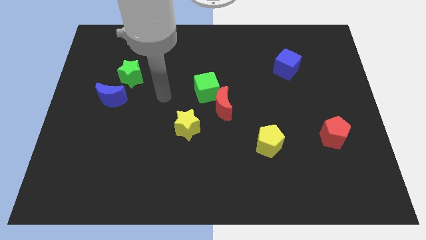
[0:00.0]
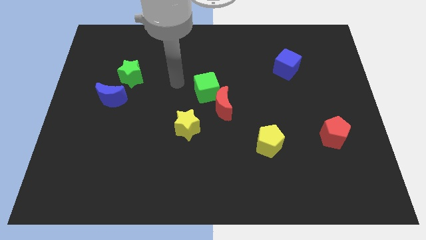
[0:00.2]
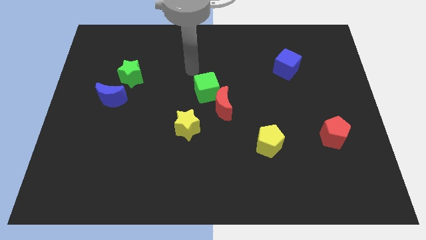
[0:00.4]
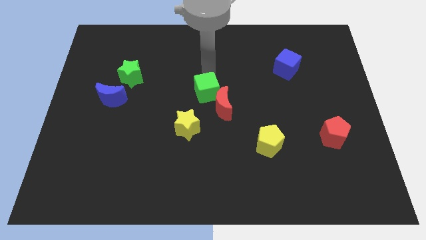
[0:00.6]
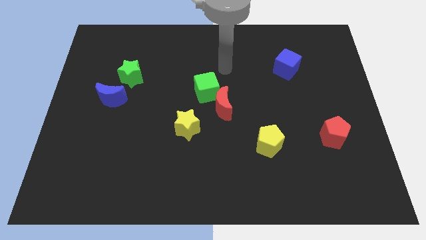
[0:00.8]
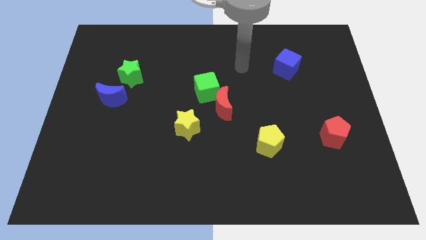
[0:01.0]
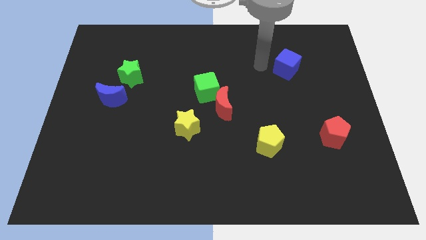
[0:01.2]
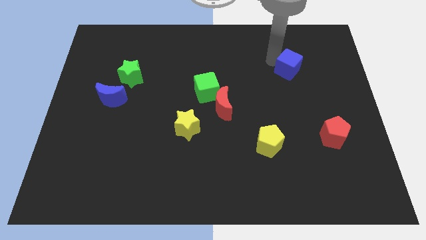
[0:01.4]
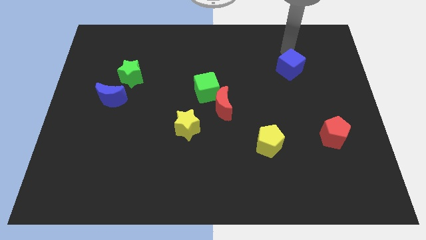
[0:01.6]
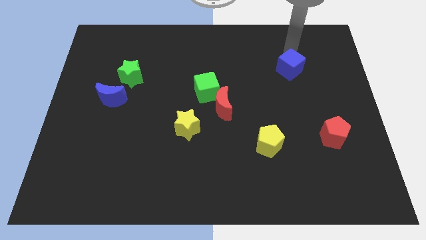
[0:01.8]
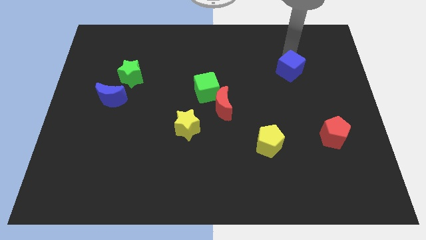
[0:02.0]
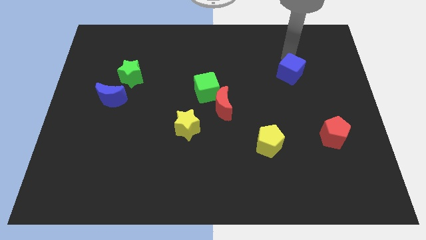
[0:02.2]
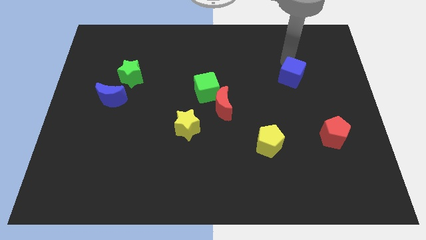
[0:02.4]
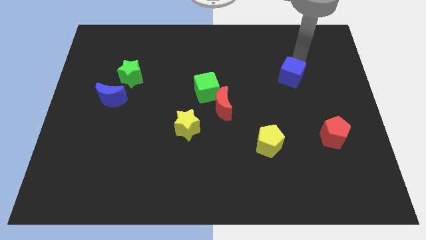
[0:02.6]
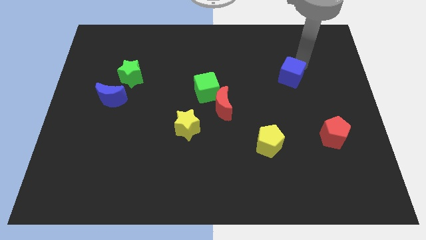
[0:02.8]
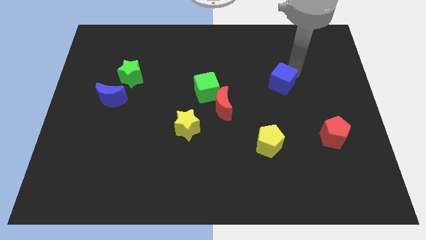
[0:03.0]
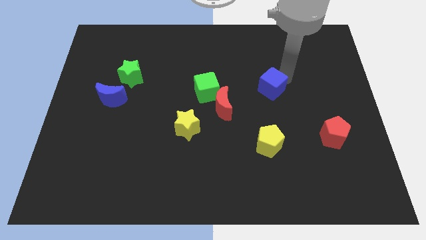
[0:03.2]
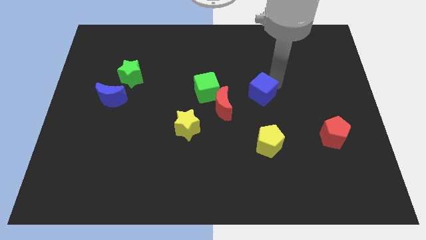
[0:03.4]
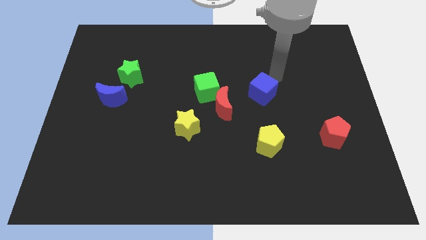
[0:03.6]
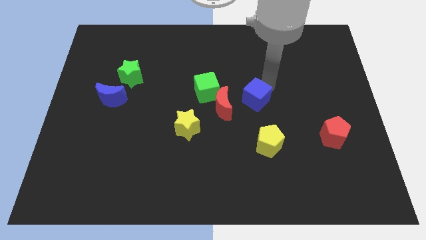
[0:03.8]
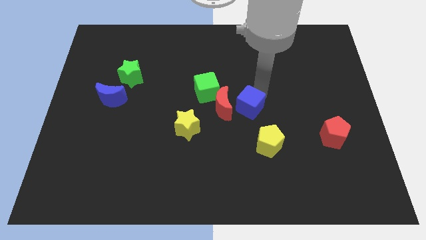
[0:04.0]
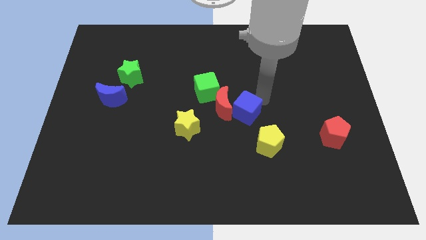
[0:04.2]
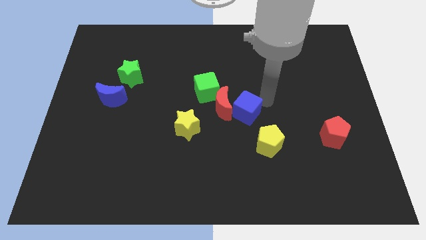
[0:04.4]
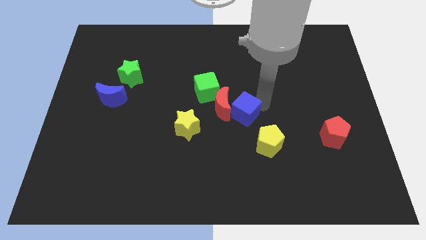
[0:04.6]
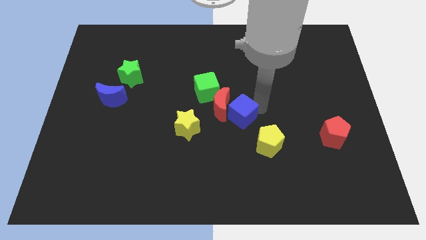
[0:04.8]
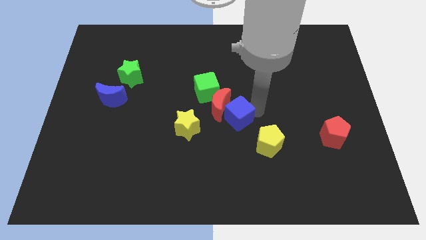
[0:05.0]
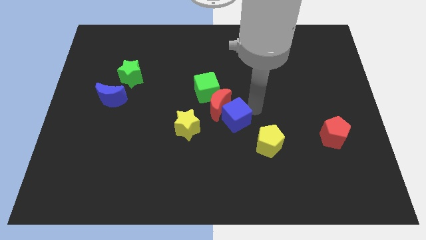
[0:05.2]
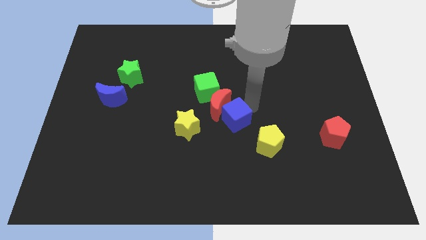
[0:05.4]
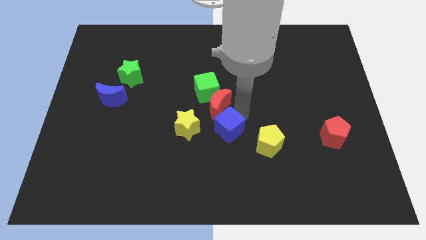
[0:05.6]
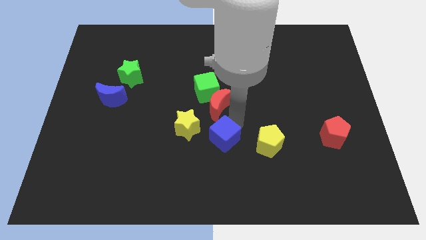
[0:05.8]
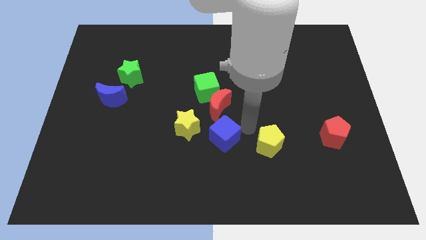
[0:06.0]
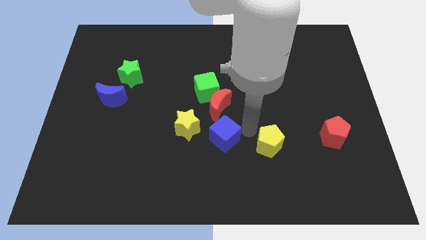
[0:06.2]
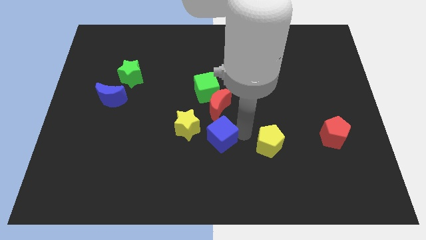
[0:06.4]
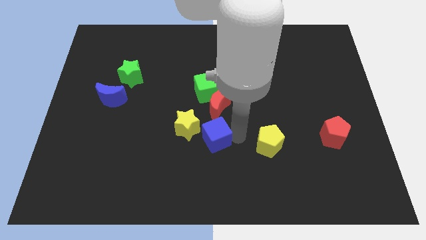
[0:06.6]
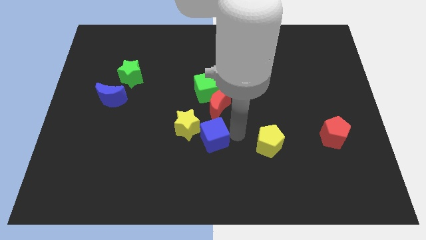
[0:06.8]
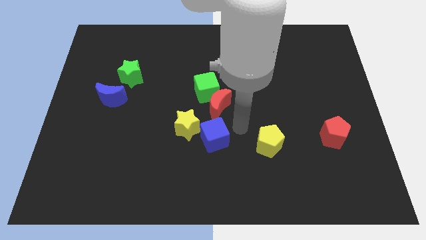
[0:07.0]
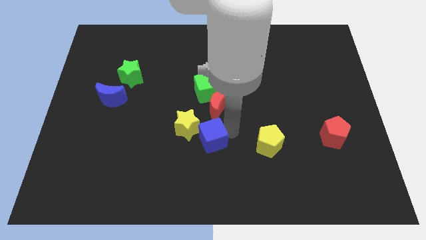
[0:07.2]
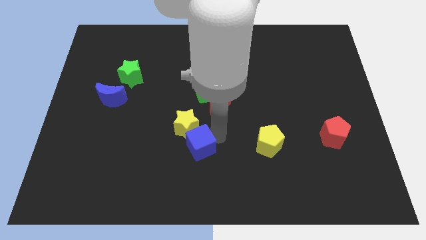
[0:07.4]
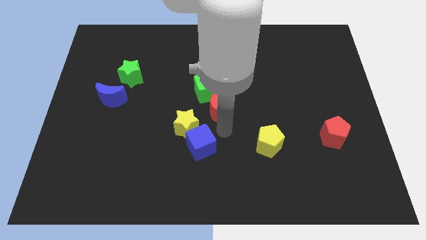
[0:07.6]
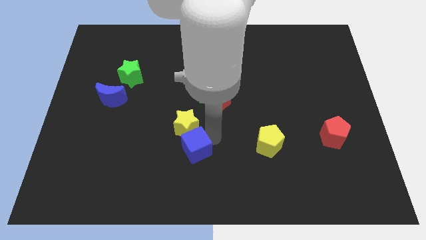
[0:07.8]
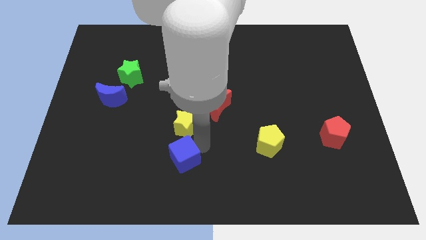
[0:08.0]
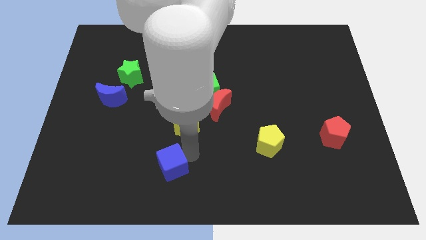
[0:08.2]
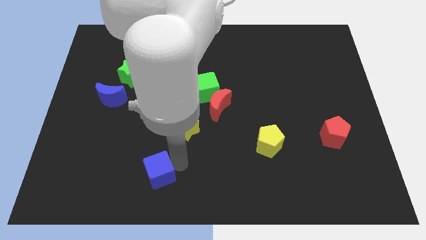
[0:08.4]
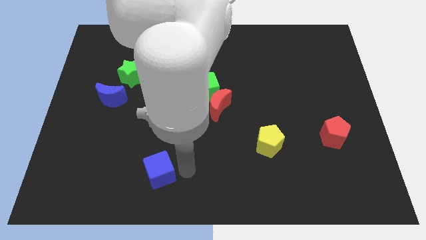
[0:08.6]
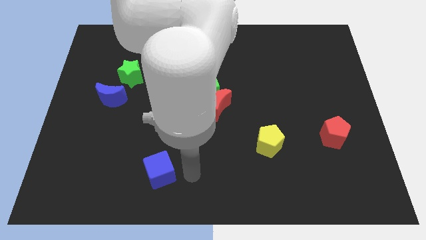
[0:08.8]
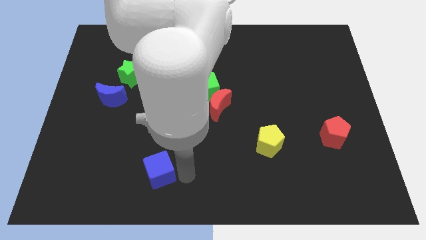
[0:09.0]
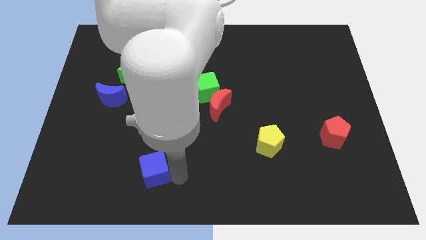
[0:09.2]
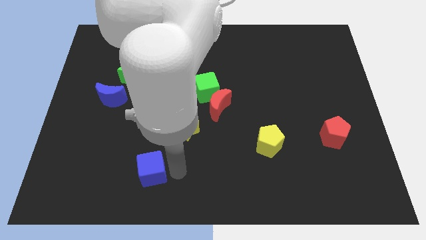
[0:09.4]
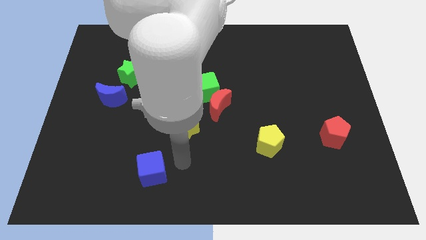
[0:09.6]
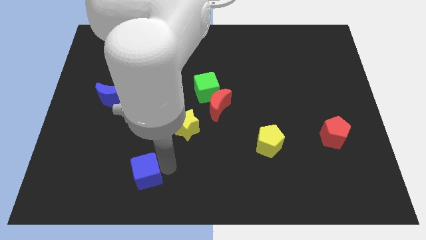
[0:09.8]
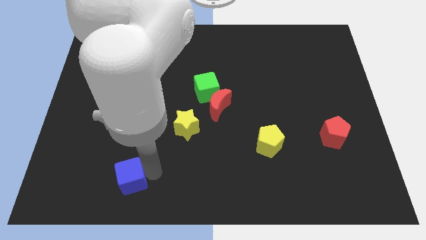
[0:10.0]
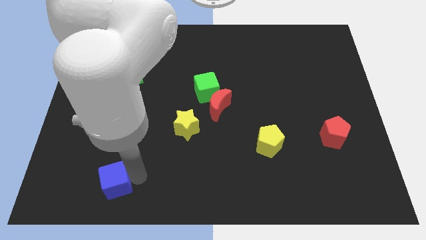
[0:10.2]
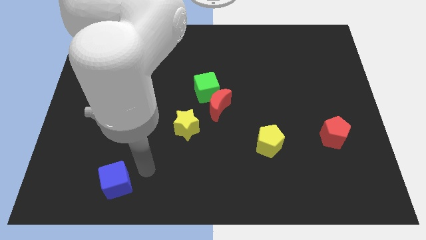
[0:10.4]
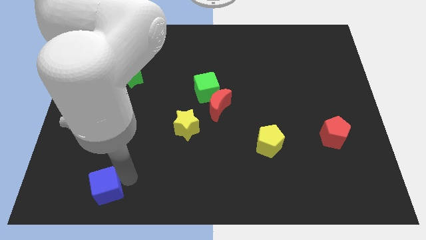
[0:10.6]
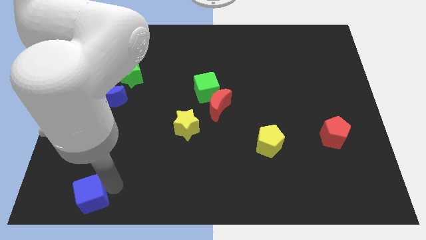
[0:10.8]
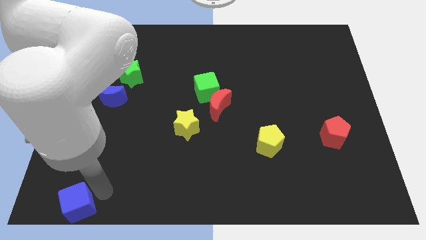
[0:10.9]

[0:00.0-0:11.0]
put the blue cube to the lower left corner

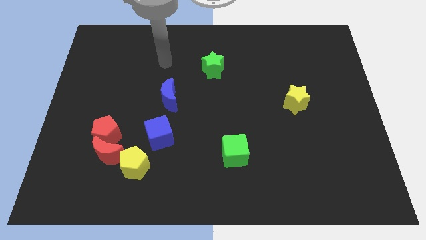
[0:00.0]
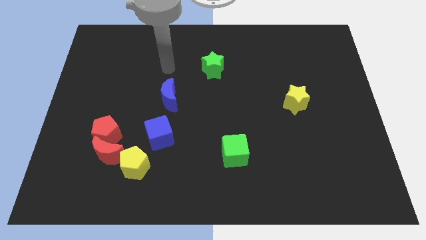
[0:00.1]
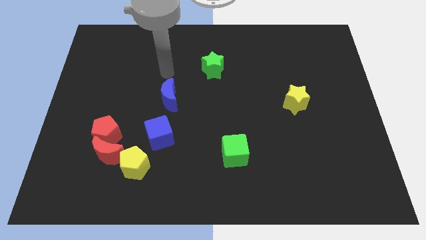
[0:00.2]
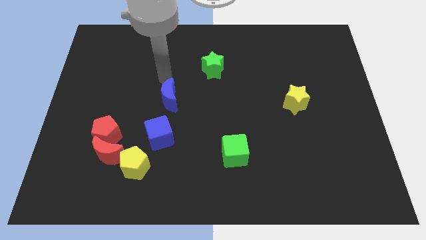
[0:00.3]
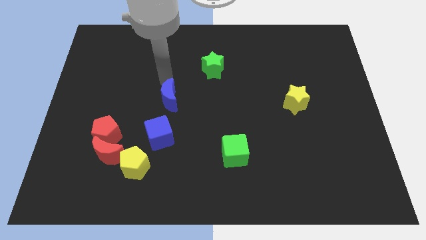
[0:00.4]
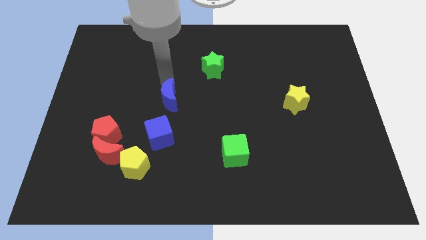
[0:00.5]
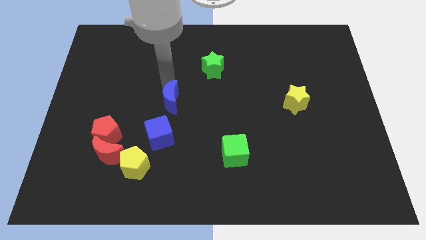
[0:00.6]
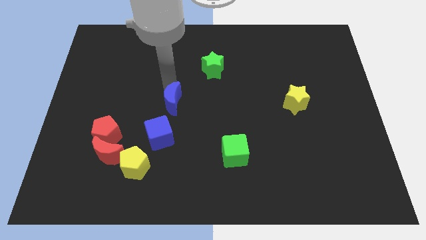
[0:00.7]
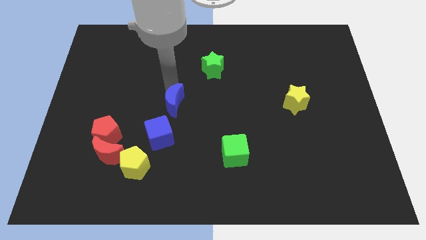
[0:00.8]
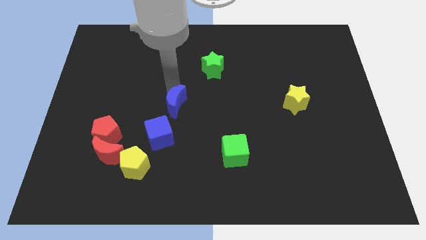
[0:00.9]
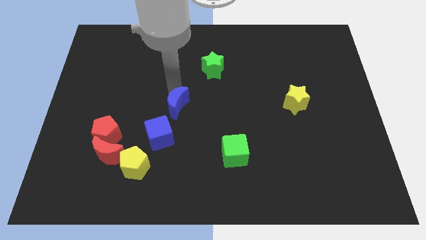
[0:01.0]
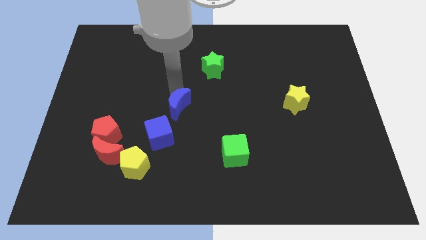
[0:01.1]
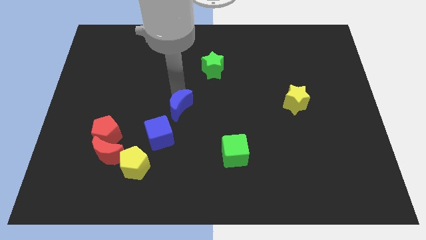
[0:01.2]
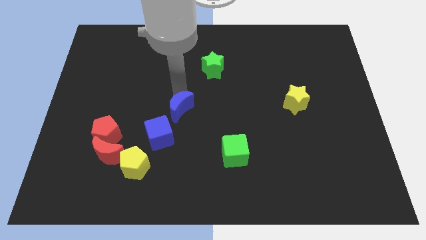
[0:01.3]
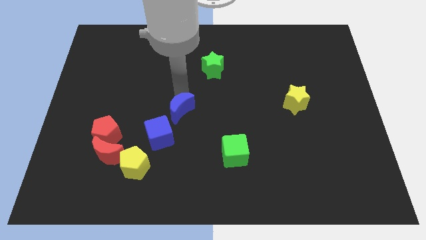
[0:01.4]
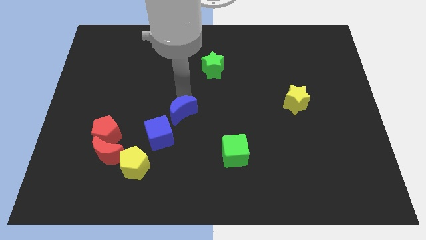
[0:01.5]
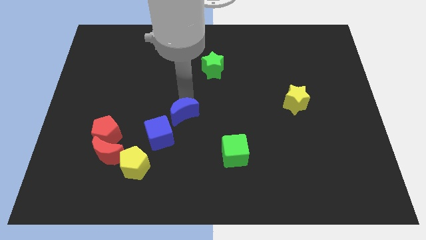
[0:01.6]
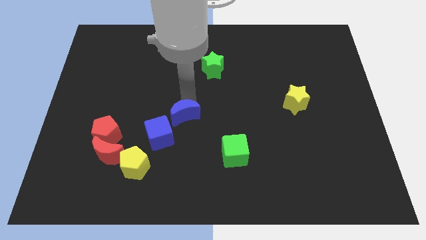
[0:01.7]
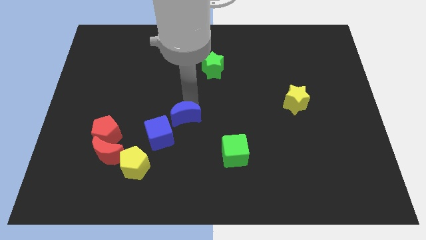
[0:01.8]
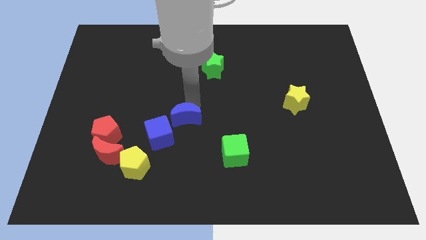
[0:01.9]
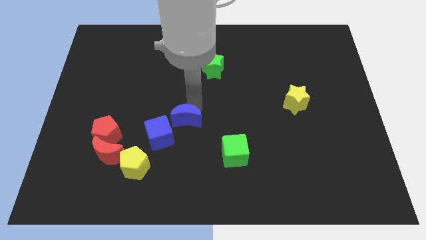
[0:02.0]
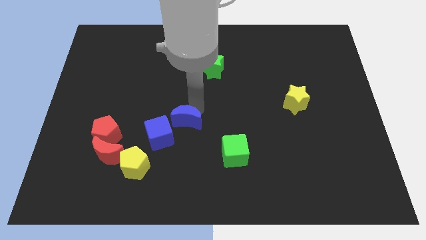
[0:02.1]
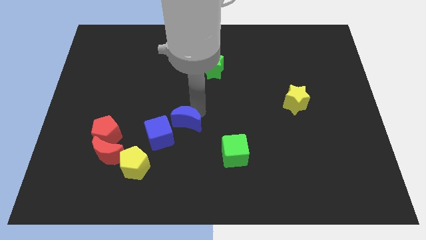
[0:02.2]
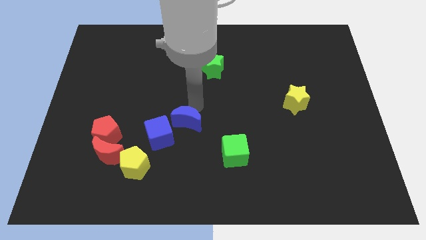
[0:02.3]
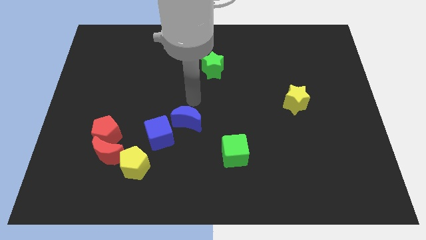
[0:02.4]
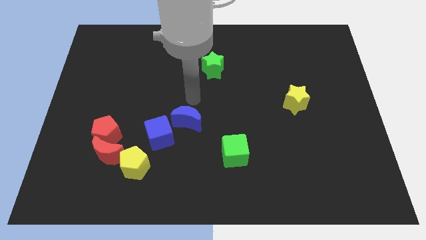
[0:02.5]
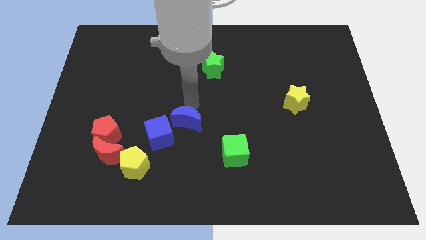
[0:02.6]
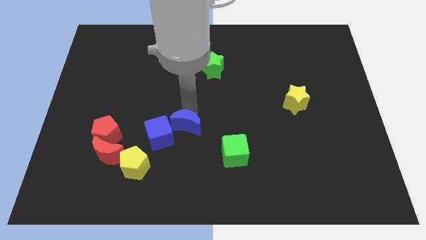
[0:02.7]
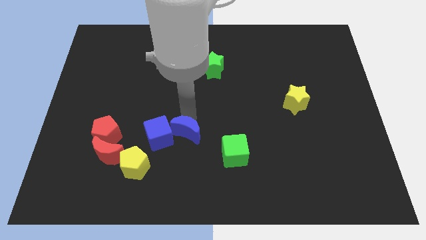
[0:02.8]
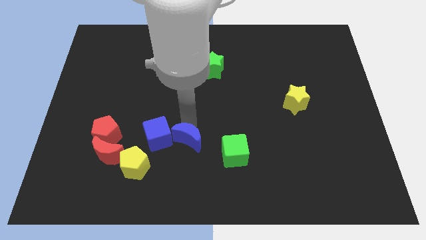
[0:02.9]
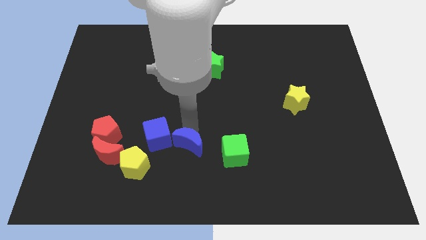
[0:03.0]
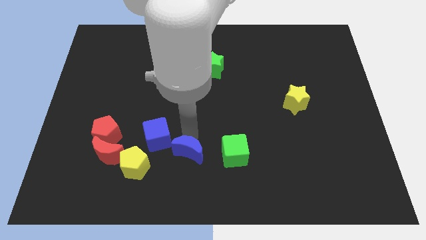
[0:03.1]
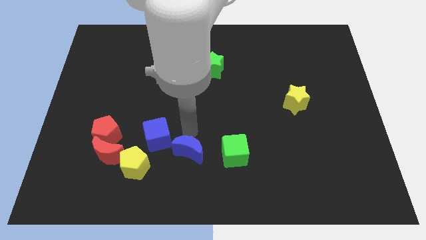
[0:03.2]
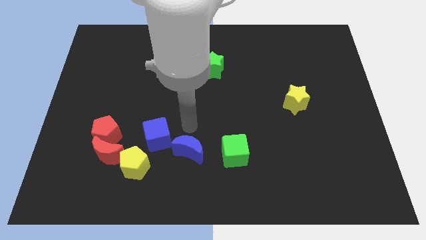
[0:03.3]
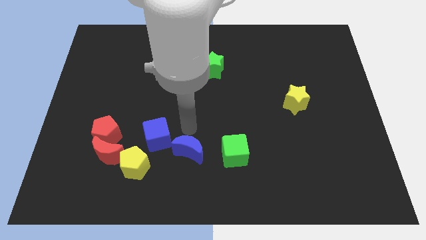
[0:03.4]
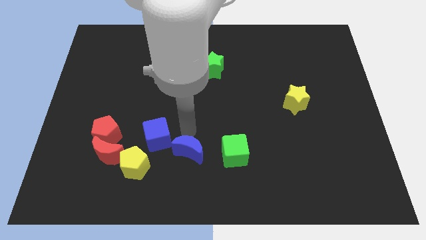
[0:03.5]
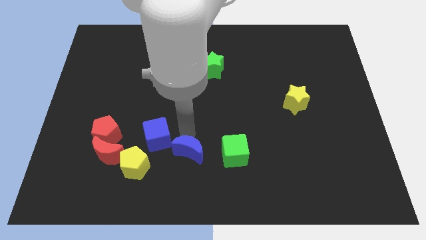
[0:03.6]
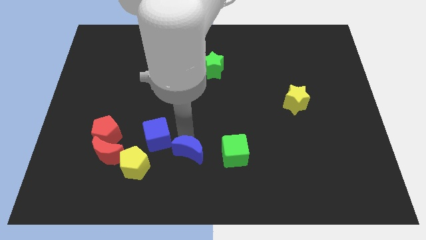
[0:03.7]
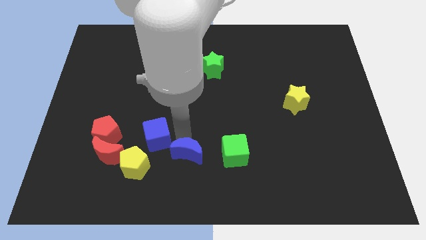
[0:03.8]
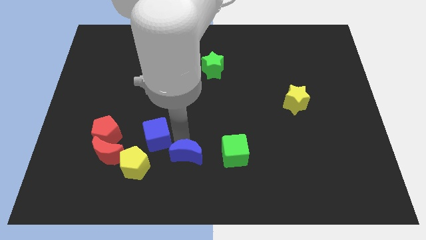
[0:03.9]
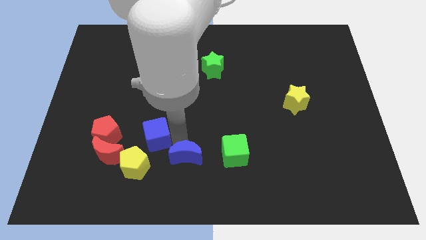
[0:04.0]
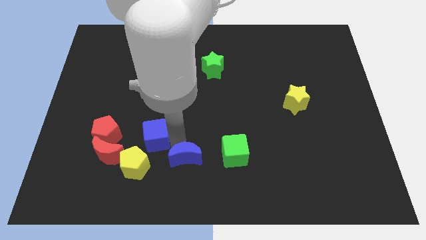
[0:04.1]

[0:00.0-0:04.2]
slide the blue moon to the bottom side
